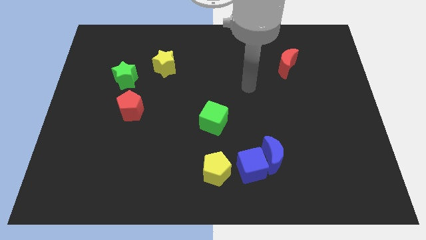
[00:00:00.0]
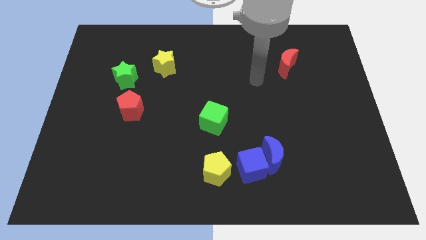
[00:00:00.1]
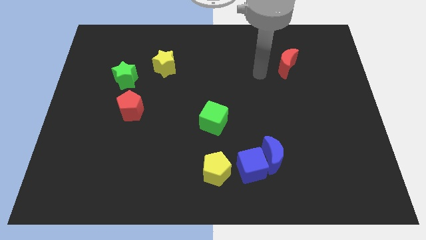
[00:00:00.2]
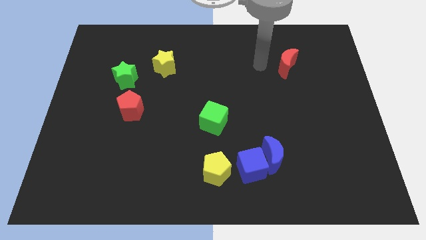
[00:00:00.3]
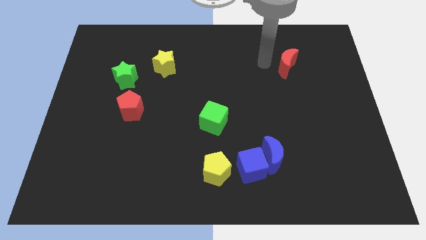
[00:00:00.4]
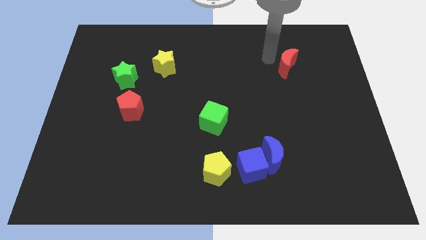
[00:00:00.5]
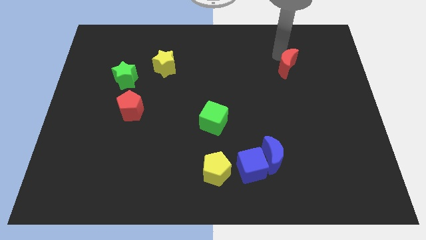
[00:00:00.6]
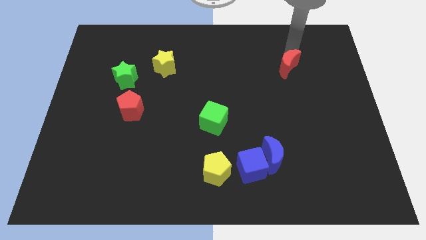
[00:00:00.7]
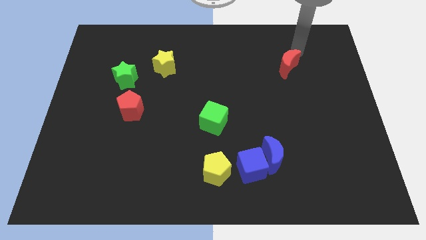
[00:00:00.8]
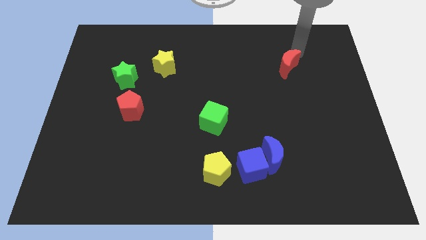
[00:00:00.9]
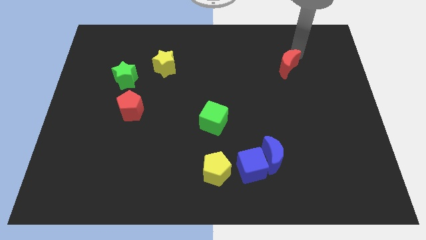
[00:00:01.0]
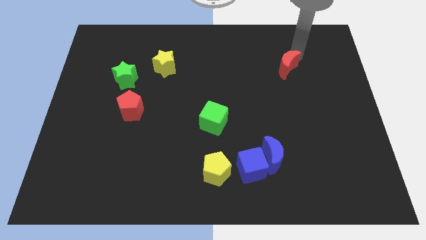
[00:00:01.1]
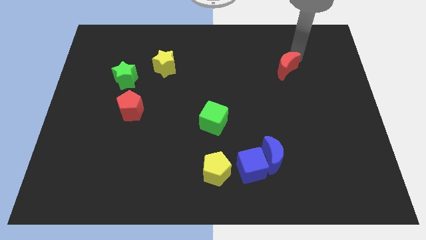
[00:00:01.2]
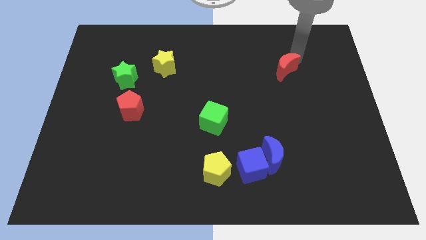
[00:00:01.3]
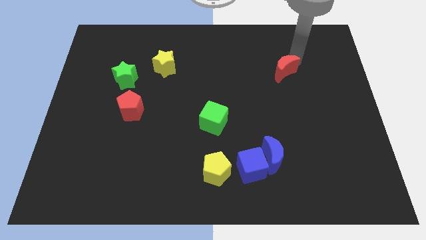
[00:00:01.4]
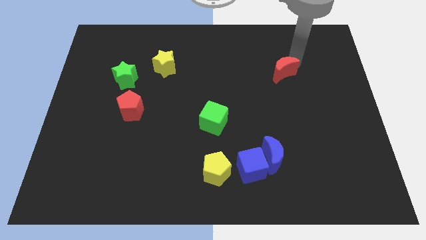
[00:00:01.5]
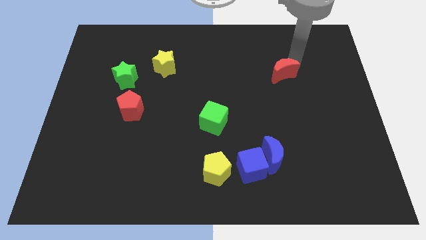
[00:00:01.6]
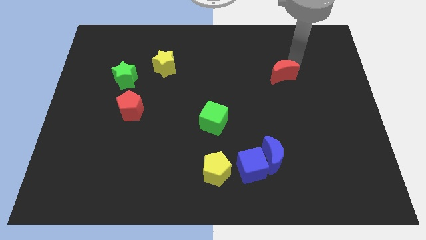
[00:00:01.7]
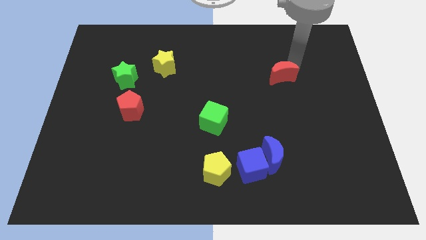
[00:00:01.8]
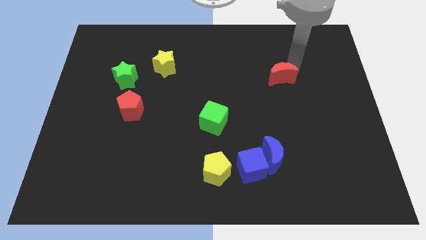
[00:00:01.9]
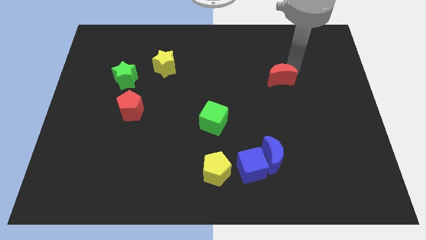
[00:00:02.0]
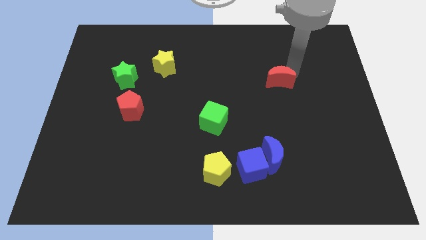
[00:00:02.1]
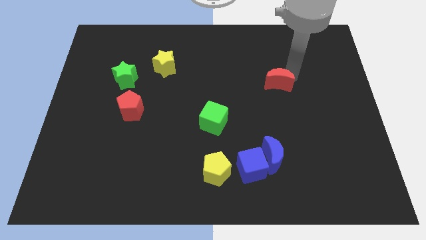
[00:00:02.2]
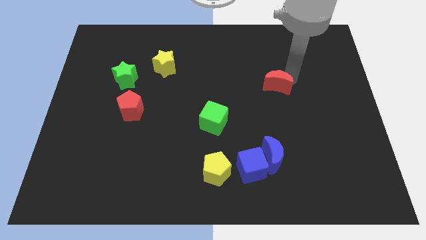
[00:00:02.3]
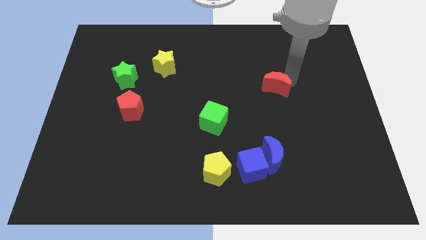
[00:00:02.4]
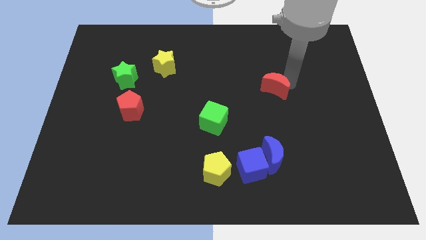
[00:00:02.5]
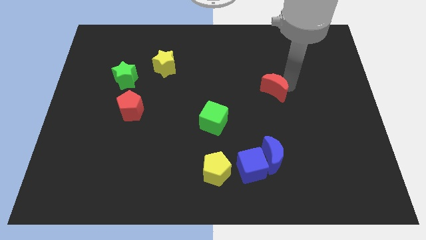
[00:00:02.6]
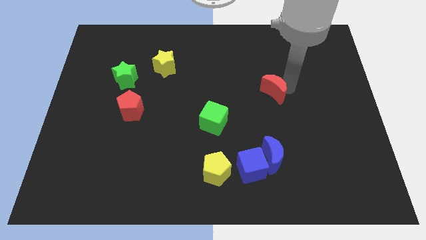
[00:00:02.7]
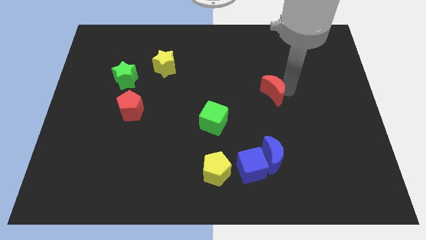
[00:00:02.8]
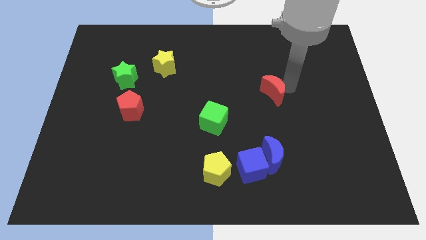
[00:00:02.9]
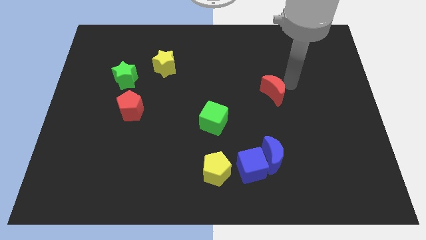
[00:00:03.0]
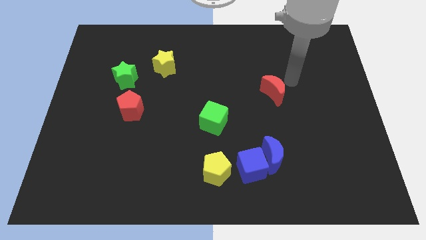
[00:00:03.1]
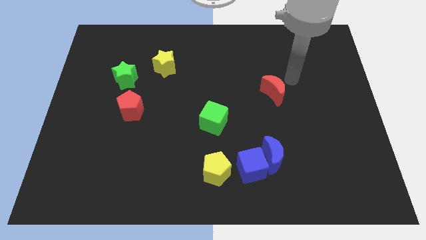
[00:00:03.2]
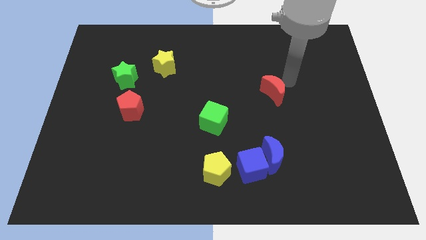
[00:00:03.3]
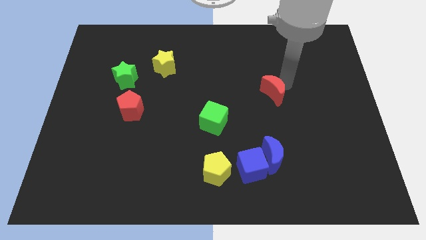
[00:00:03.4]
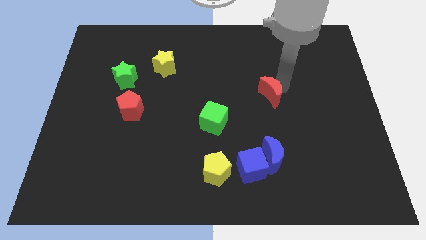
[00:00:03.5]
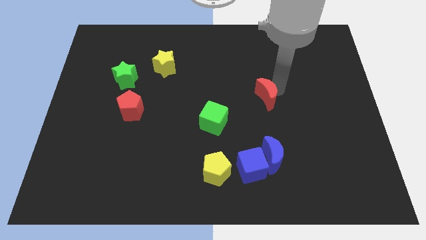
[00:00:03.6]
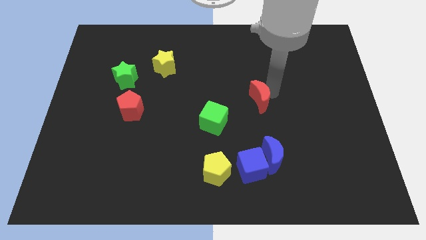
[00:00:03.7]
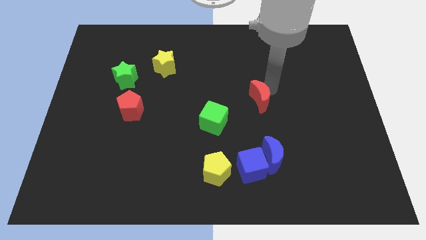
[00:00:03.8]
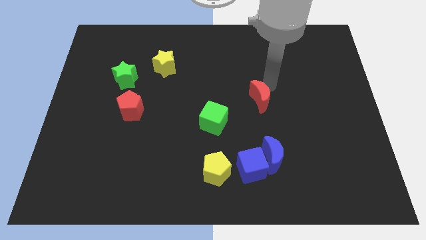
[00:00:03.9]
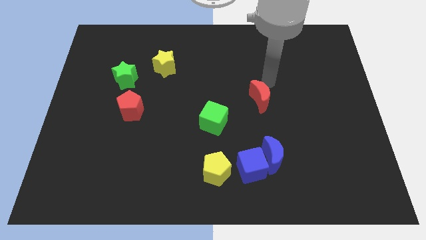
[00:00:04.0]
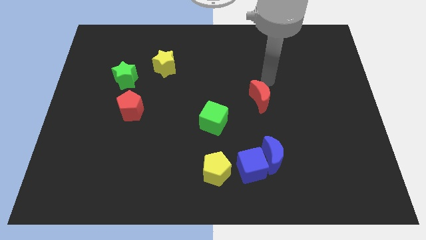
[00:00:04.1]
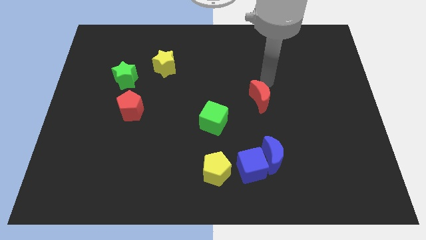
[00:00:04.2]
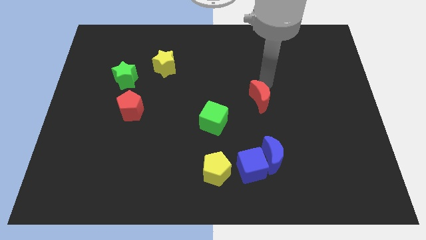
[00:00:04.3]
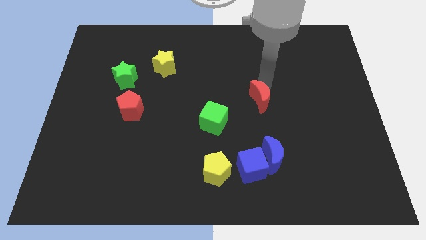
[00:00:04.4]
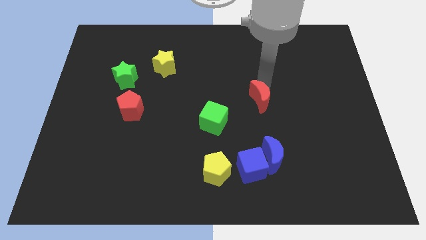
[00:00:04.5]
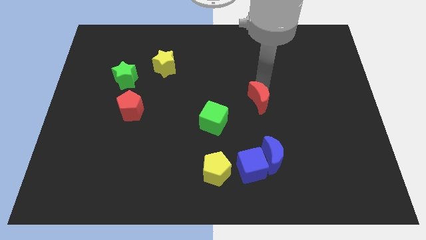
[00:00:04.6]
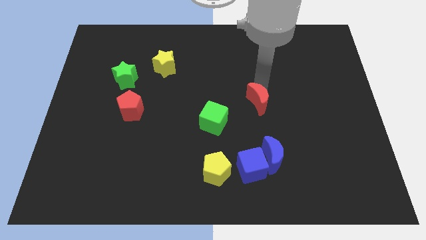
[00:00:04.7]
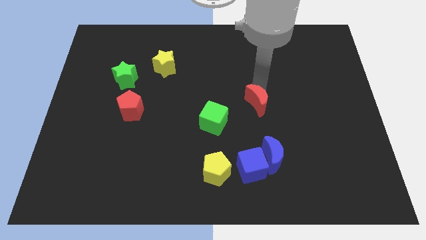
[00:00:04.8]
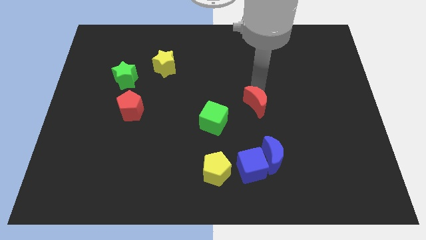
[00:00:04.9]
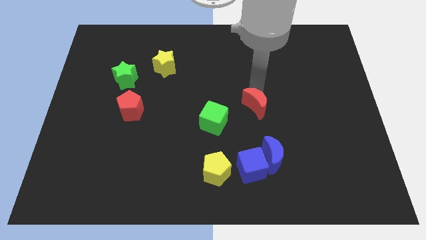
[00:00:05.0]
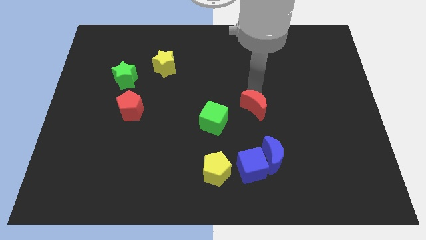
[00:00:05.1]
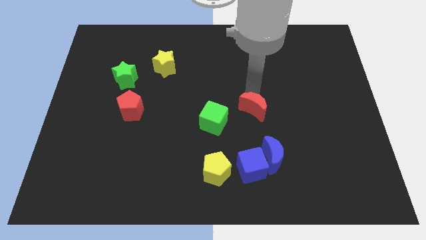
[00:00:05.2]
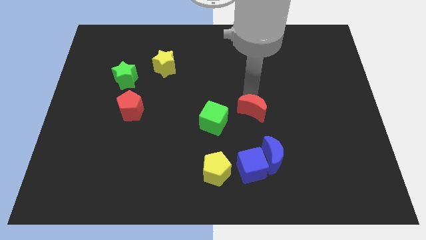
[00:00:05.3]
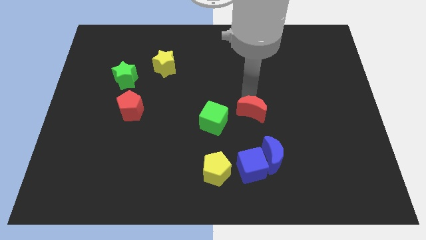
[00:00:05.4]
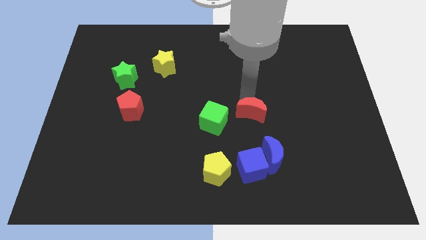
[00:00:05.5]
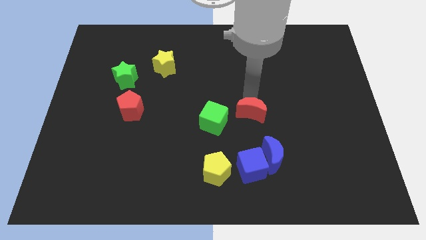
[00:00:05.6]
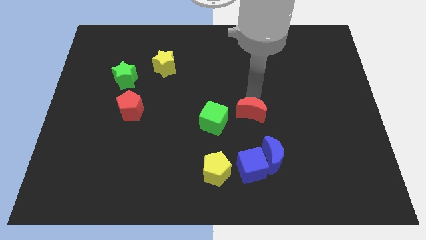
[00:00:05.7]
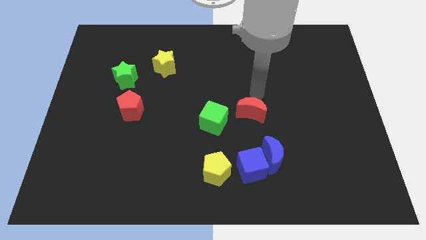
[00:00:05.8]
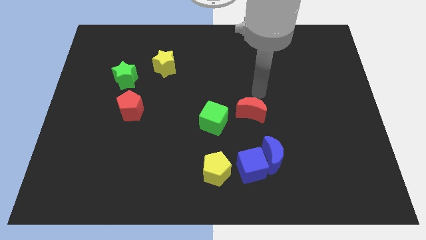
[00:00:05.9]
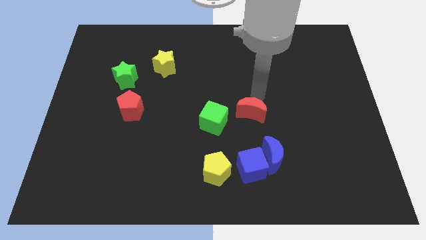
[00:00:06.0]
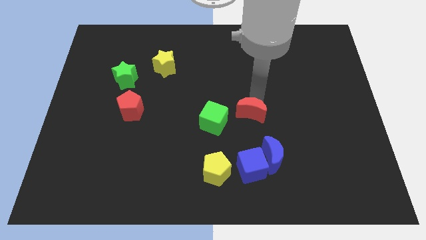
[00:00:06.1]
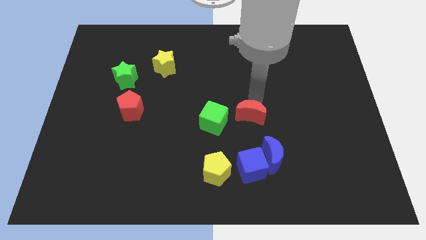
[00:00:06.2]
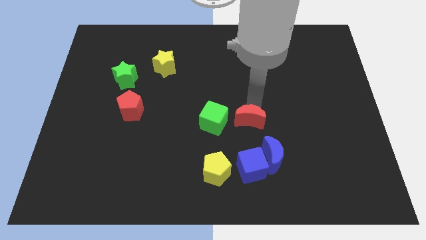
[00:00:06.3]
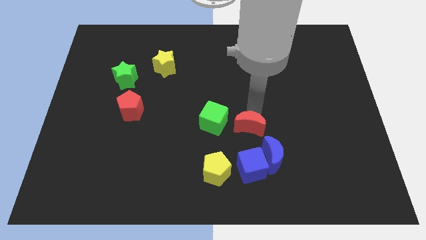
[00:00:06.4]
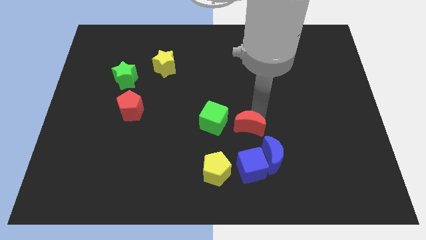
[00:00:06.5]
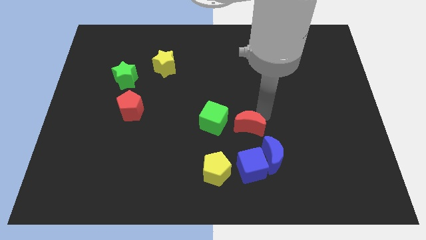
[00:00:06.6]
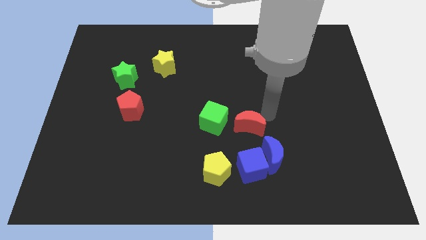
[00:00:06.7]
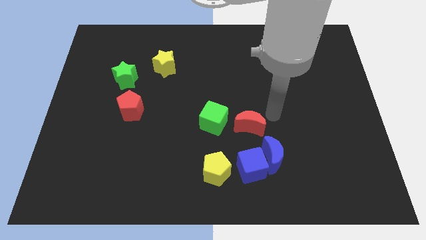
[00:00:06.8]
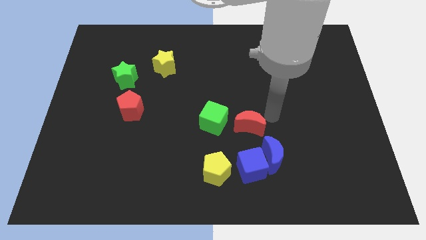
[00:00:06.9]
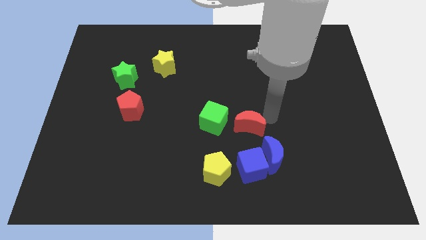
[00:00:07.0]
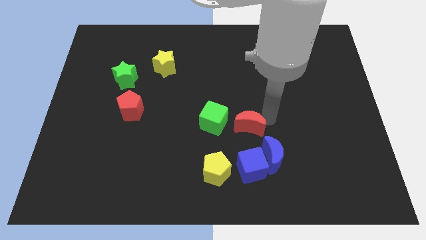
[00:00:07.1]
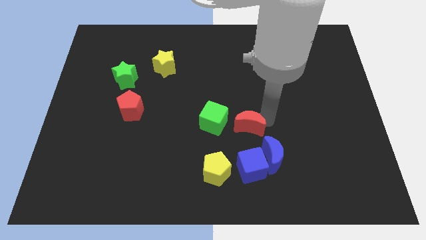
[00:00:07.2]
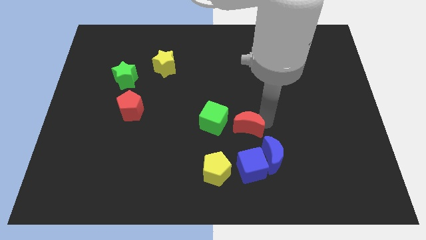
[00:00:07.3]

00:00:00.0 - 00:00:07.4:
slide the red moon downwards and to the left

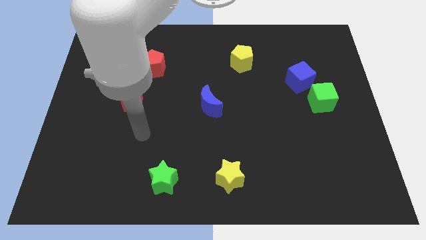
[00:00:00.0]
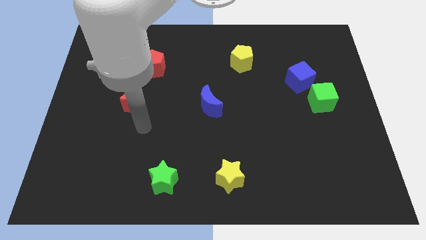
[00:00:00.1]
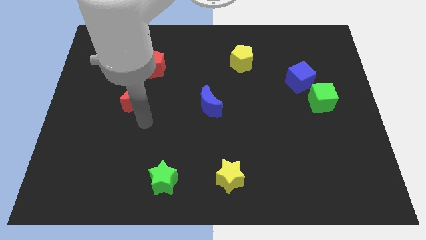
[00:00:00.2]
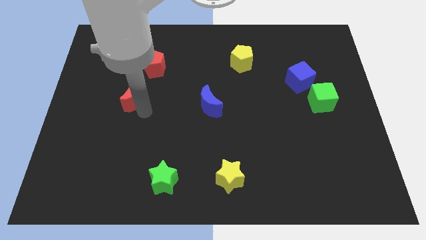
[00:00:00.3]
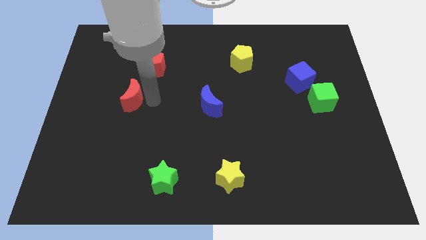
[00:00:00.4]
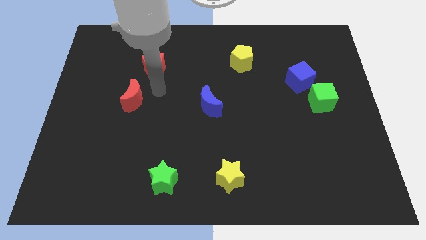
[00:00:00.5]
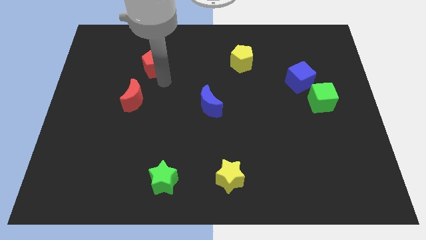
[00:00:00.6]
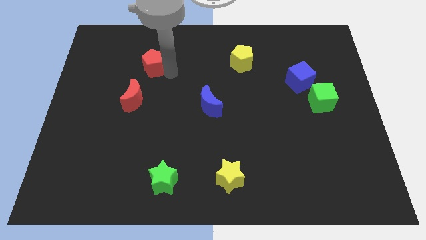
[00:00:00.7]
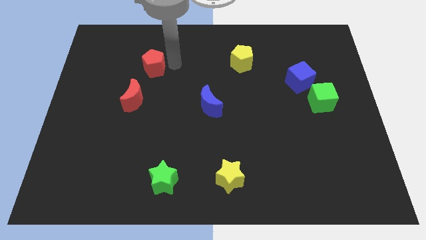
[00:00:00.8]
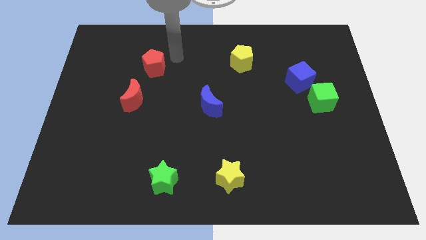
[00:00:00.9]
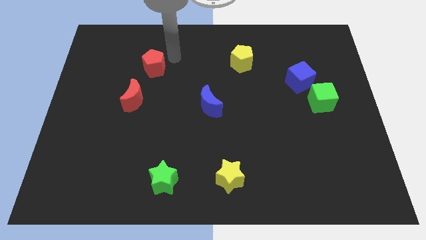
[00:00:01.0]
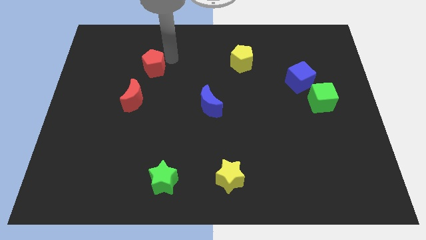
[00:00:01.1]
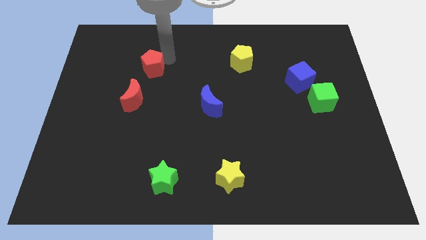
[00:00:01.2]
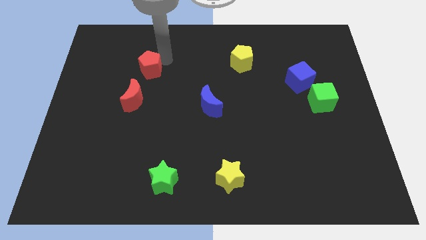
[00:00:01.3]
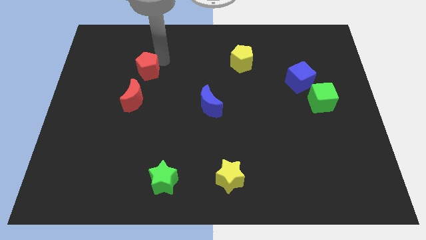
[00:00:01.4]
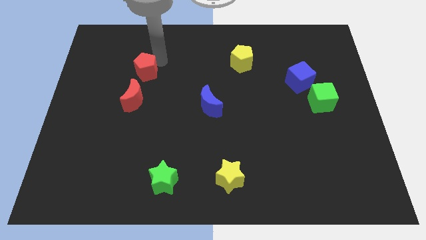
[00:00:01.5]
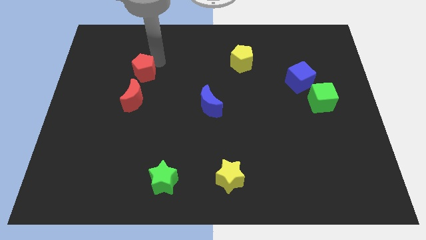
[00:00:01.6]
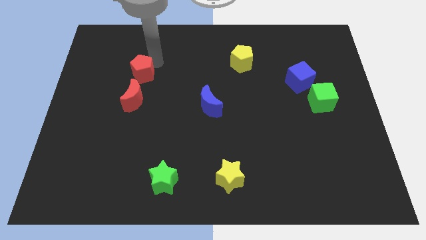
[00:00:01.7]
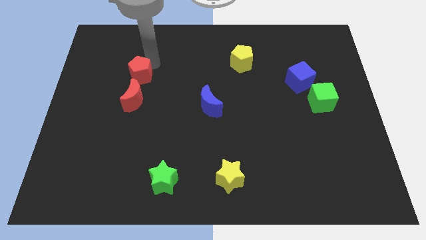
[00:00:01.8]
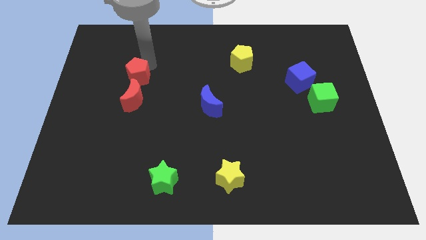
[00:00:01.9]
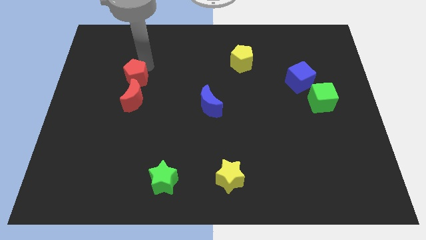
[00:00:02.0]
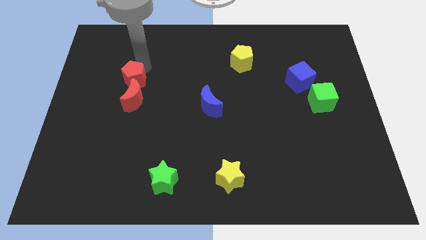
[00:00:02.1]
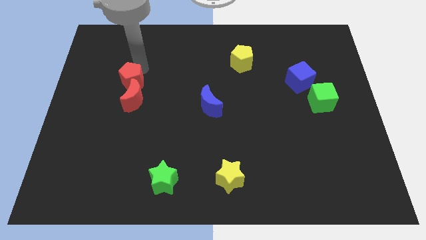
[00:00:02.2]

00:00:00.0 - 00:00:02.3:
move the red pentagon down and left diagonally slightly
